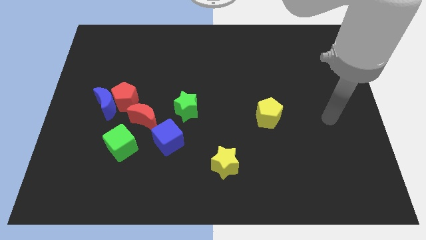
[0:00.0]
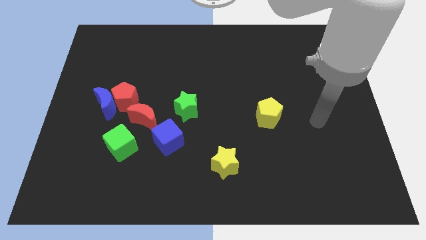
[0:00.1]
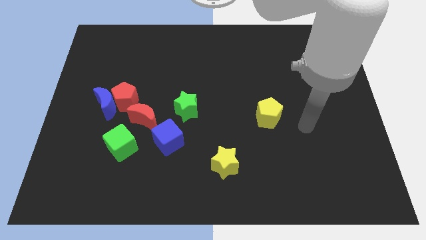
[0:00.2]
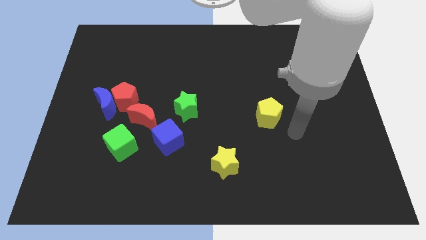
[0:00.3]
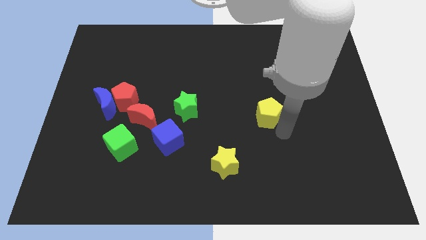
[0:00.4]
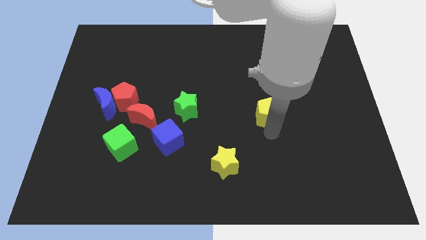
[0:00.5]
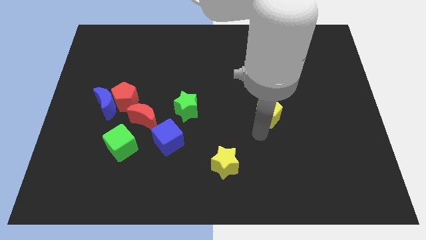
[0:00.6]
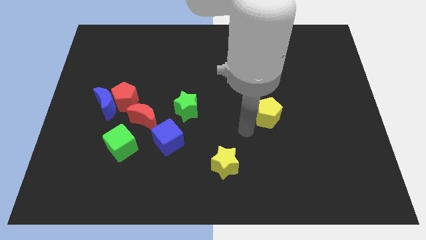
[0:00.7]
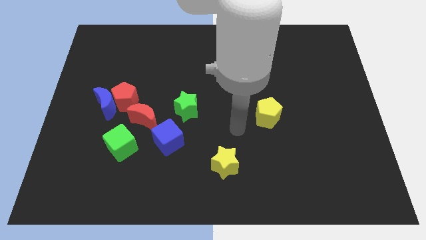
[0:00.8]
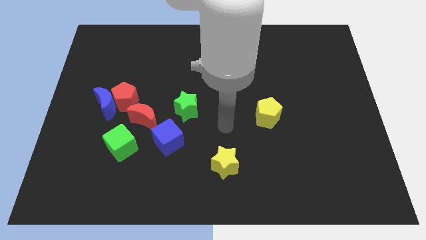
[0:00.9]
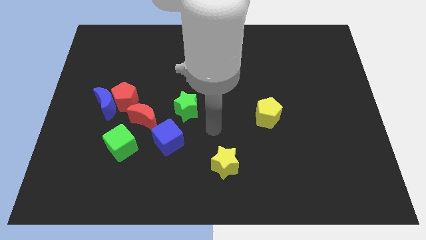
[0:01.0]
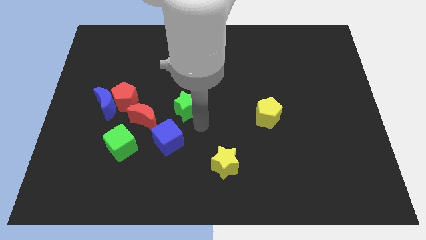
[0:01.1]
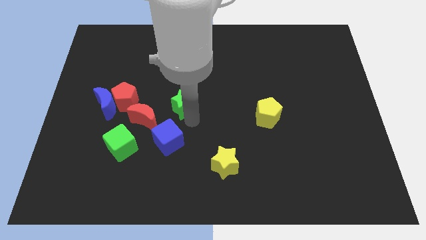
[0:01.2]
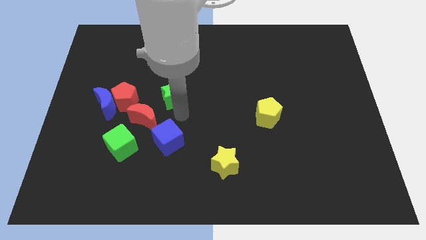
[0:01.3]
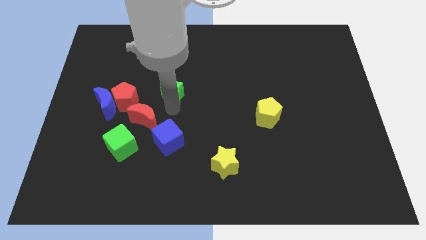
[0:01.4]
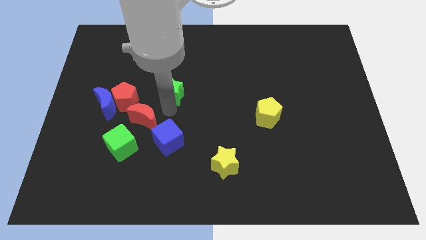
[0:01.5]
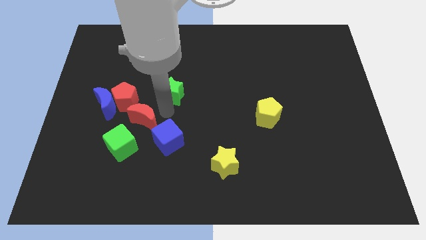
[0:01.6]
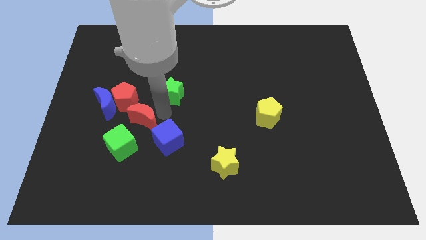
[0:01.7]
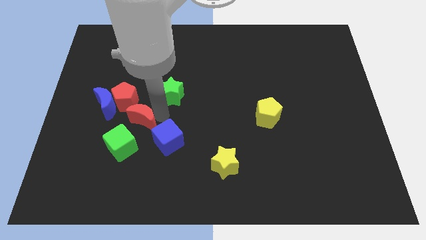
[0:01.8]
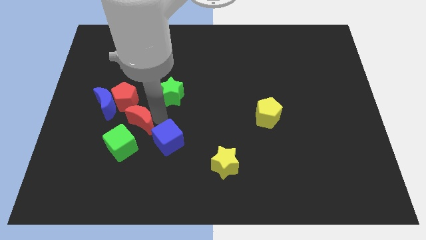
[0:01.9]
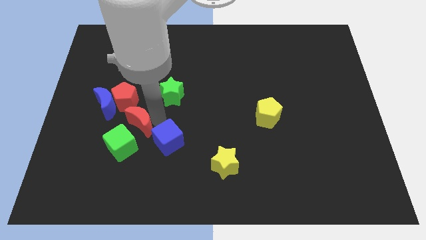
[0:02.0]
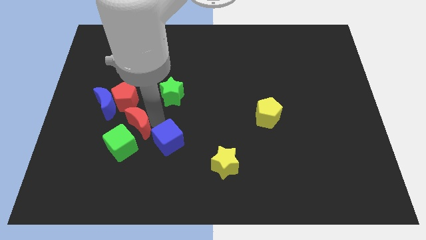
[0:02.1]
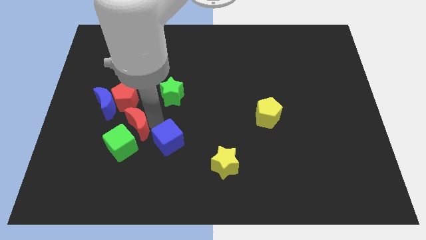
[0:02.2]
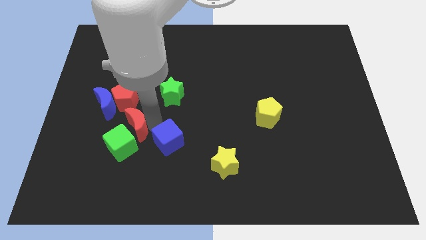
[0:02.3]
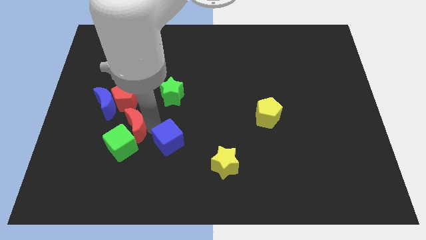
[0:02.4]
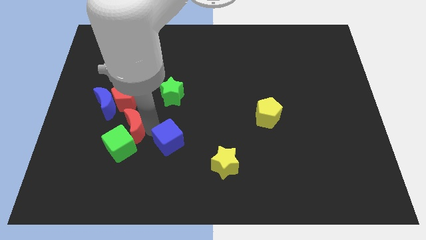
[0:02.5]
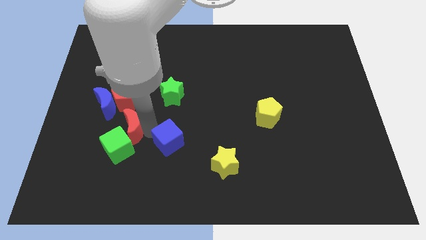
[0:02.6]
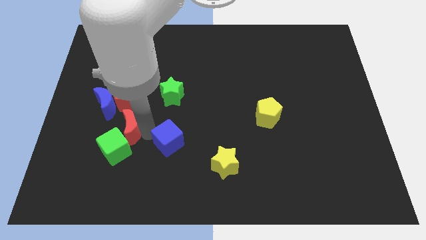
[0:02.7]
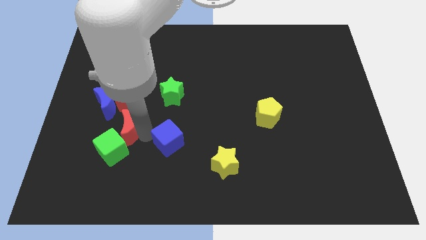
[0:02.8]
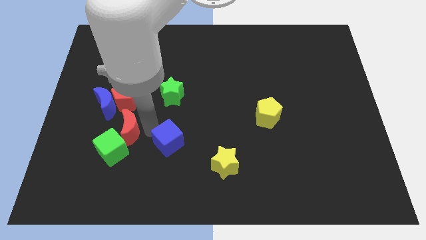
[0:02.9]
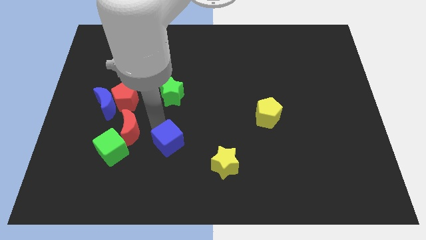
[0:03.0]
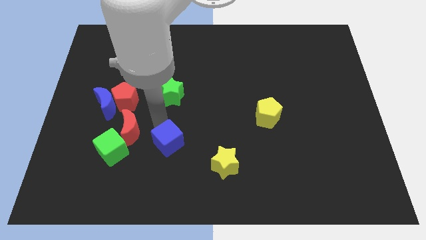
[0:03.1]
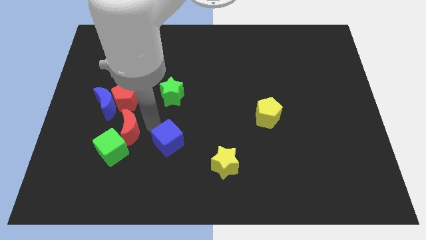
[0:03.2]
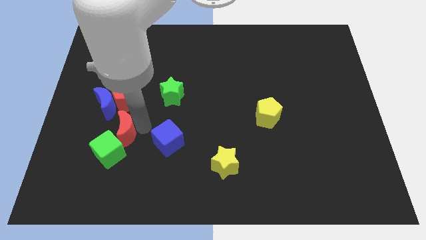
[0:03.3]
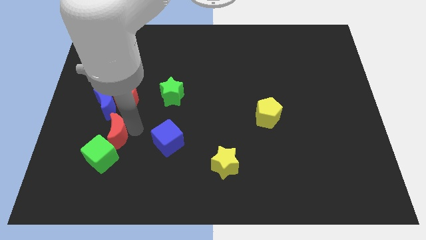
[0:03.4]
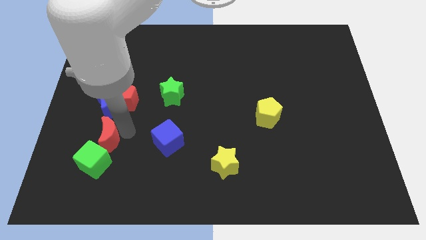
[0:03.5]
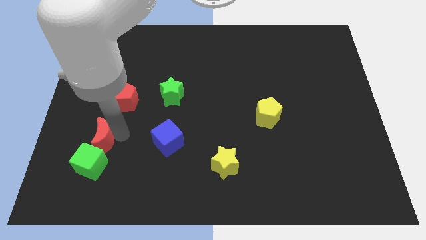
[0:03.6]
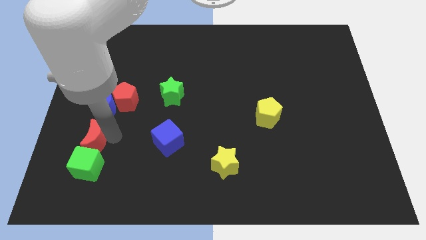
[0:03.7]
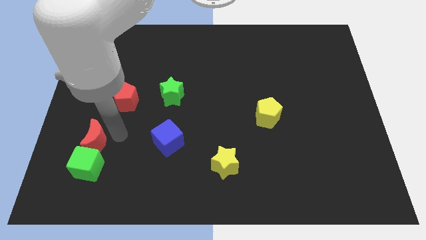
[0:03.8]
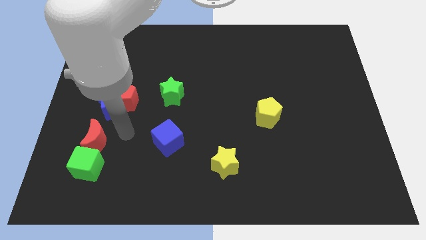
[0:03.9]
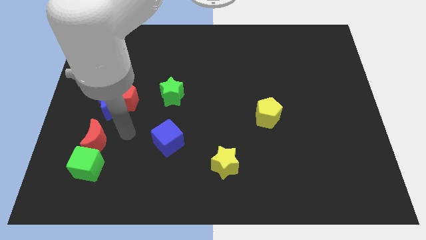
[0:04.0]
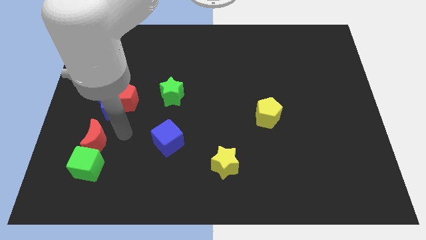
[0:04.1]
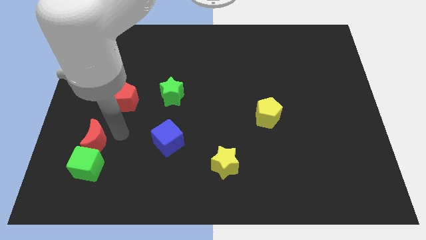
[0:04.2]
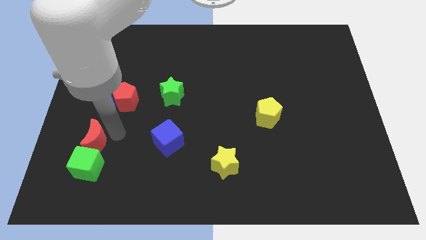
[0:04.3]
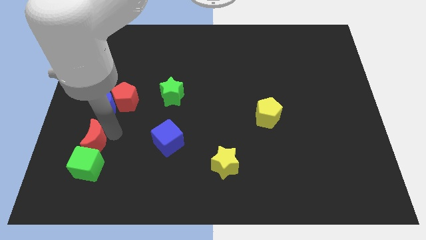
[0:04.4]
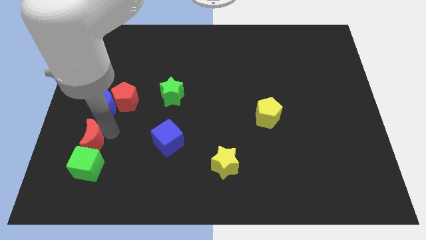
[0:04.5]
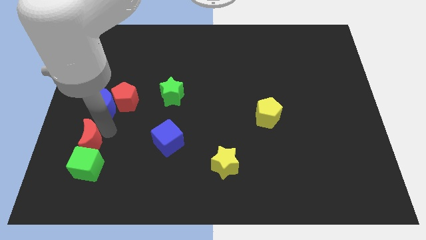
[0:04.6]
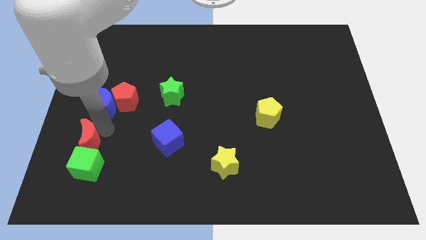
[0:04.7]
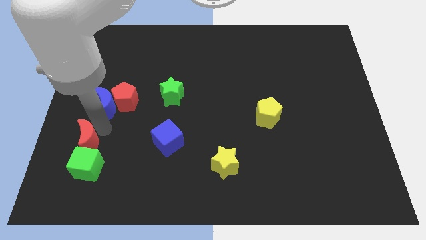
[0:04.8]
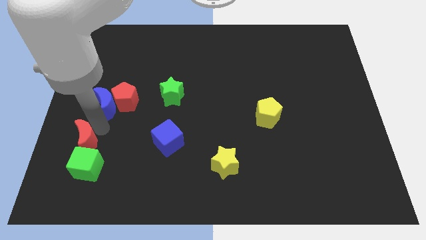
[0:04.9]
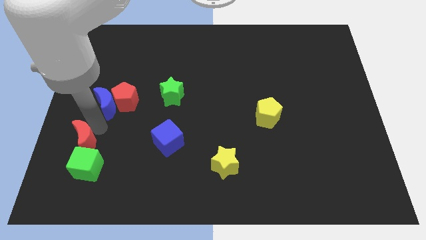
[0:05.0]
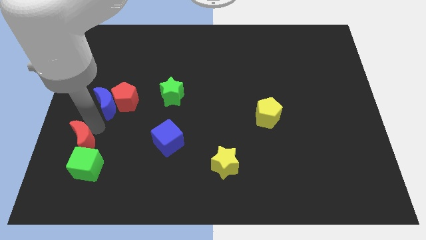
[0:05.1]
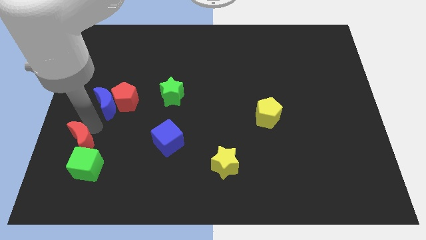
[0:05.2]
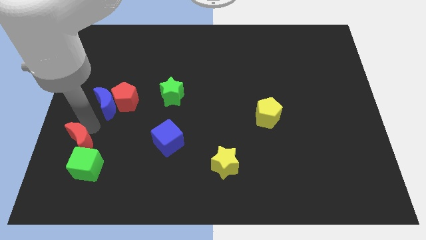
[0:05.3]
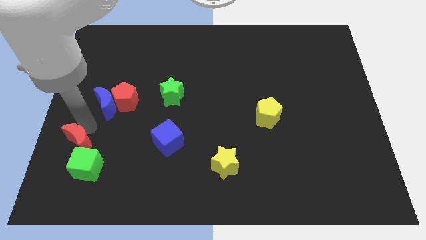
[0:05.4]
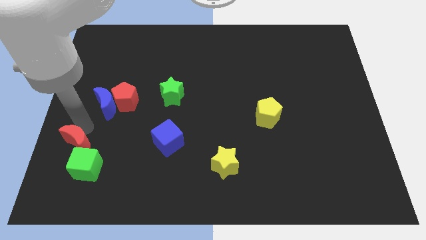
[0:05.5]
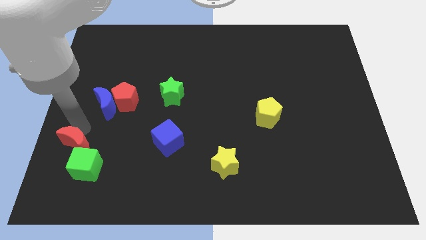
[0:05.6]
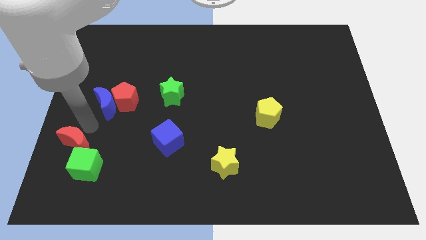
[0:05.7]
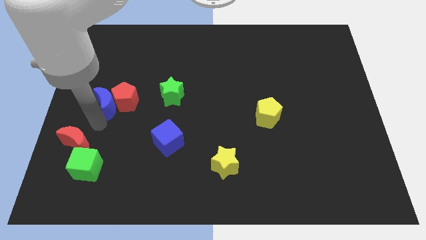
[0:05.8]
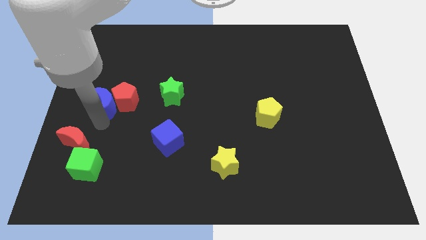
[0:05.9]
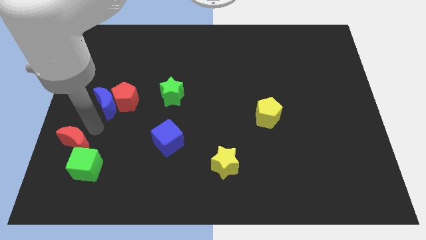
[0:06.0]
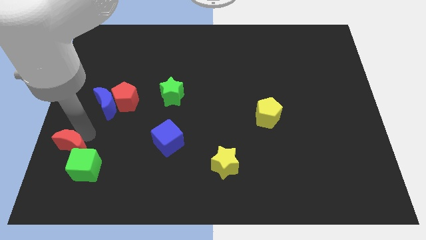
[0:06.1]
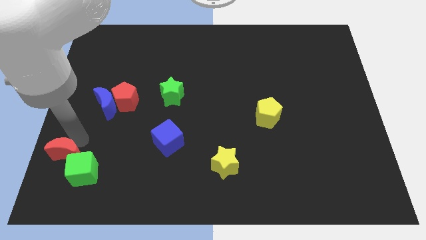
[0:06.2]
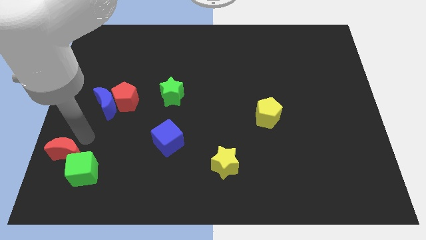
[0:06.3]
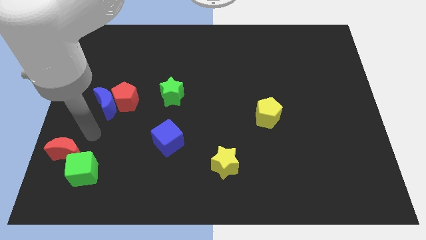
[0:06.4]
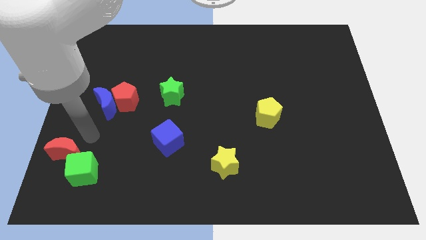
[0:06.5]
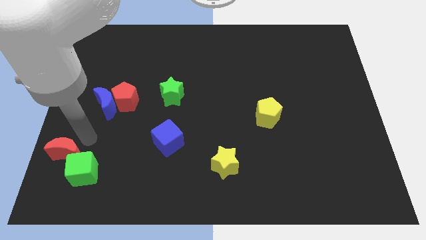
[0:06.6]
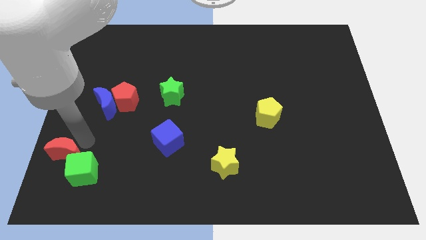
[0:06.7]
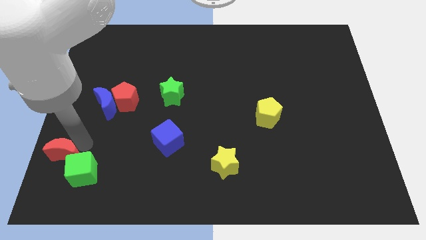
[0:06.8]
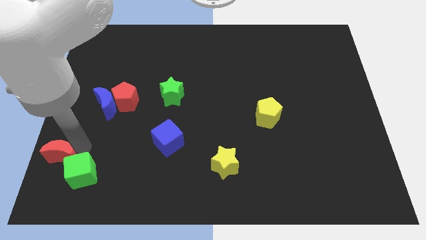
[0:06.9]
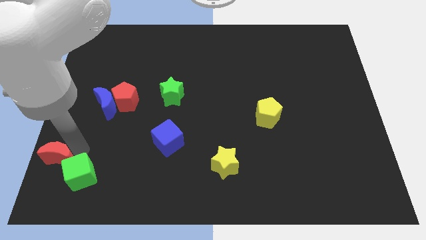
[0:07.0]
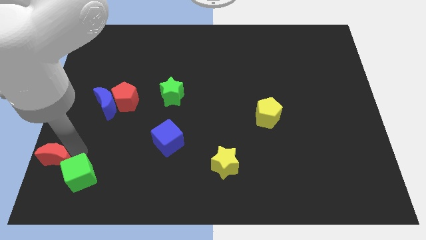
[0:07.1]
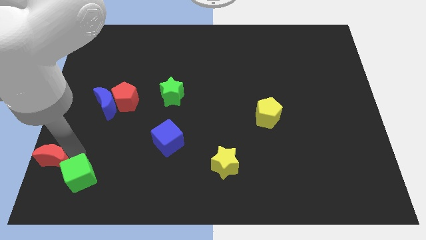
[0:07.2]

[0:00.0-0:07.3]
move the red moon to the bottom left corner
